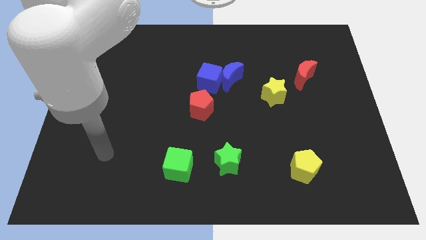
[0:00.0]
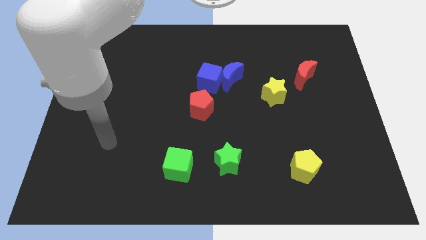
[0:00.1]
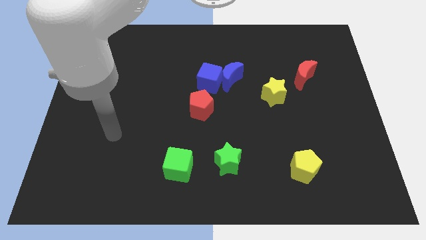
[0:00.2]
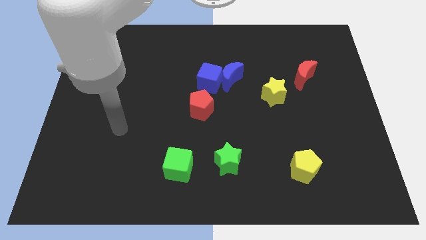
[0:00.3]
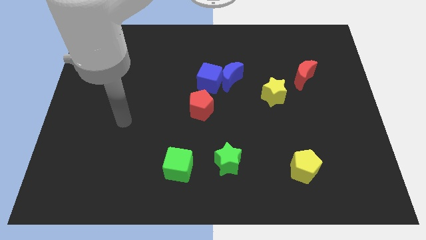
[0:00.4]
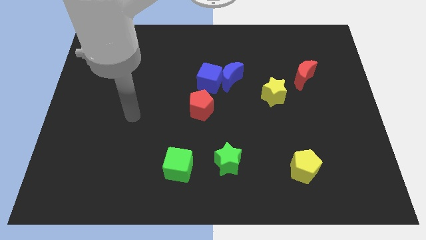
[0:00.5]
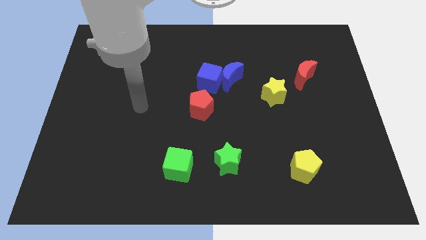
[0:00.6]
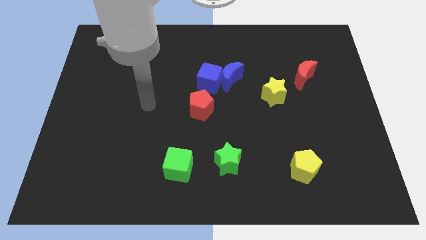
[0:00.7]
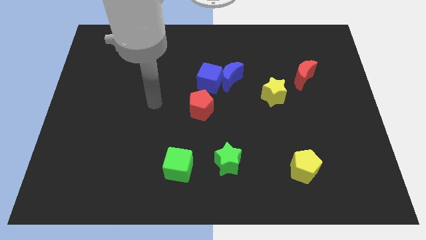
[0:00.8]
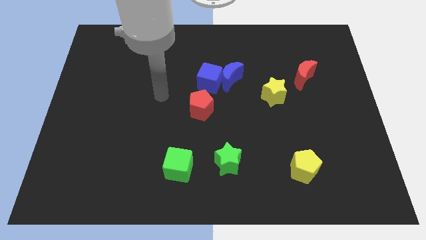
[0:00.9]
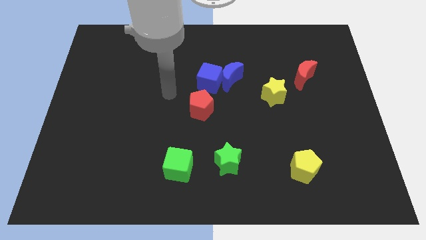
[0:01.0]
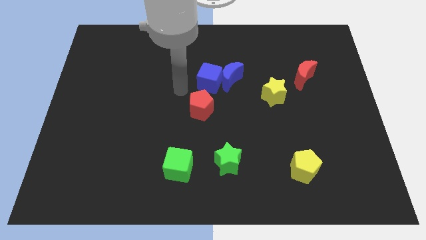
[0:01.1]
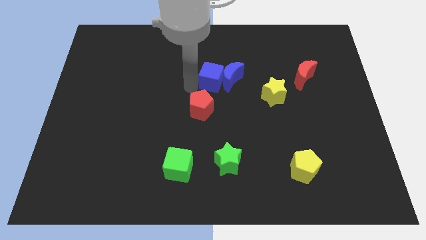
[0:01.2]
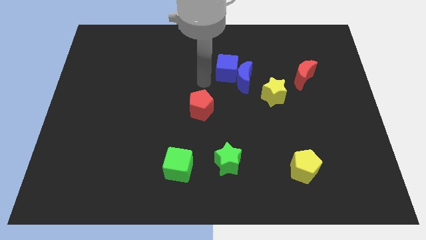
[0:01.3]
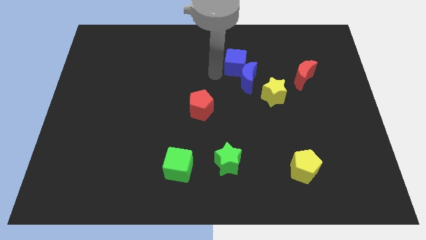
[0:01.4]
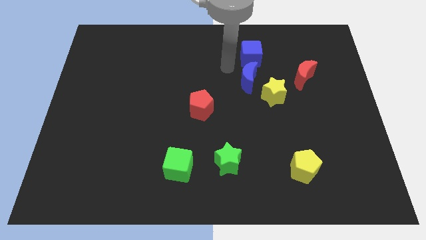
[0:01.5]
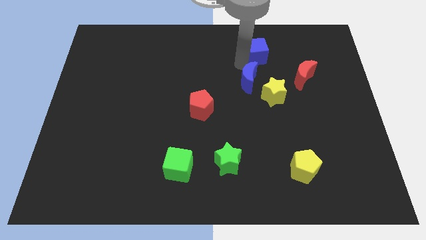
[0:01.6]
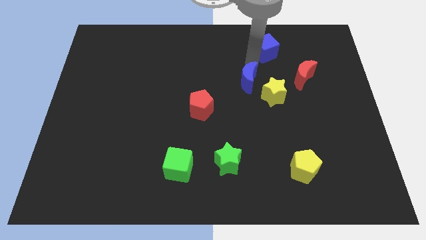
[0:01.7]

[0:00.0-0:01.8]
separate the blue moon from the blue cube

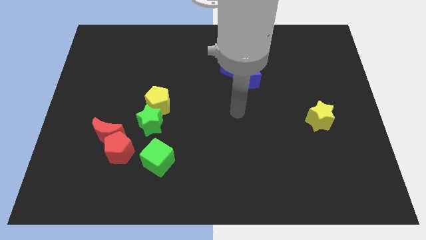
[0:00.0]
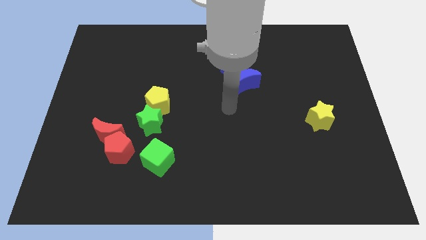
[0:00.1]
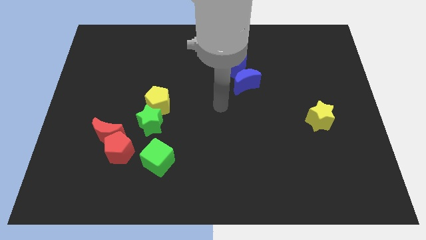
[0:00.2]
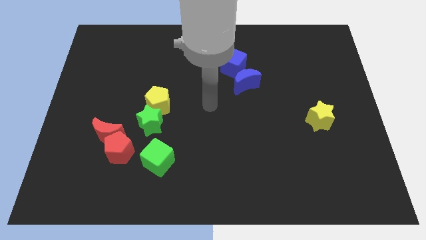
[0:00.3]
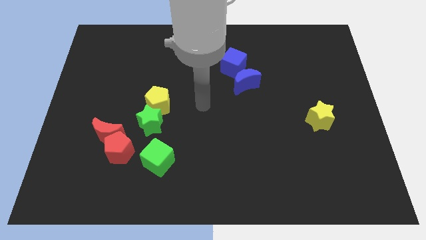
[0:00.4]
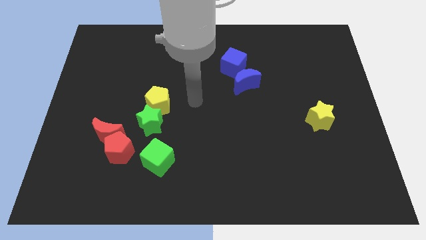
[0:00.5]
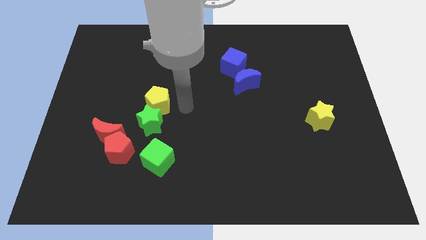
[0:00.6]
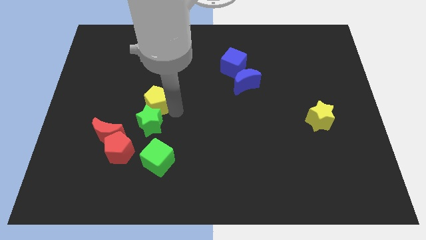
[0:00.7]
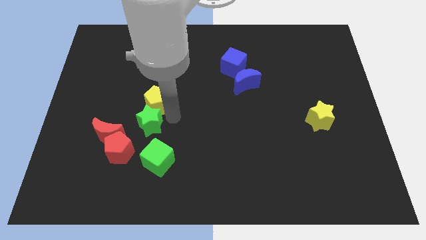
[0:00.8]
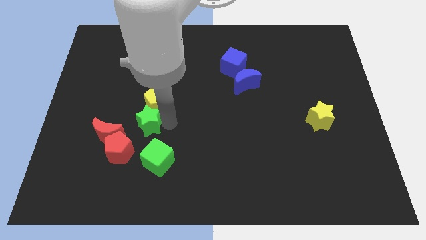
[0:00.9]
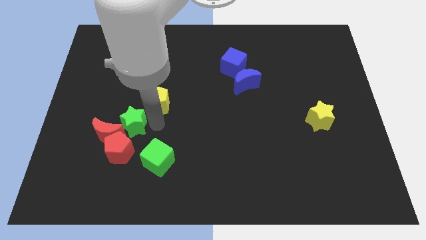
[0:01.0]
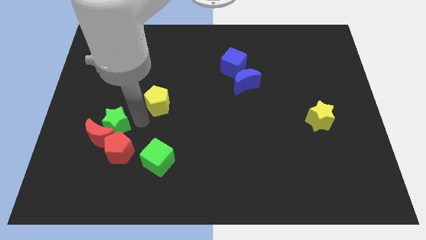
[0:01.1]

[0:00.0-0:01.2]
separate the yellow pentagon from the green star

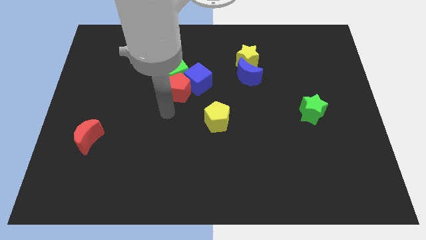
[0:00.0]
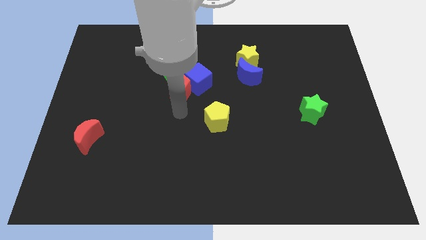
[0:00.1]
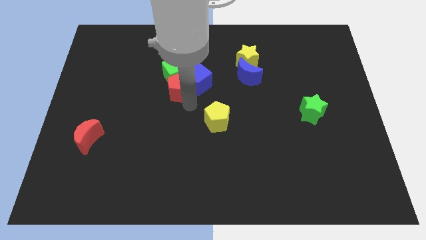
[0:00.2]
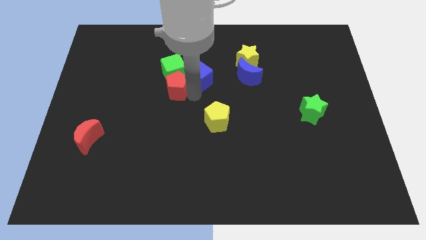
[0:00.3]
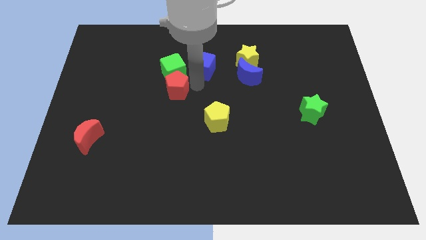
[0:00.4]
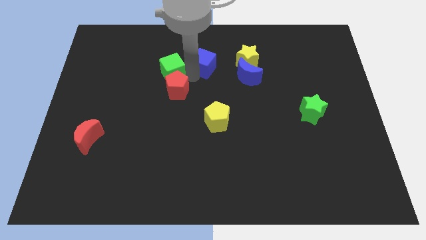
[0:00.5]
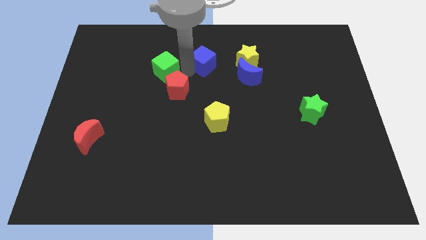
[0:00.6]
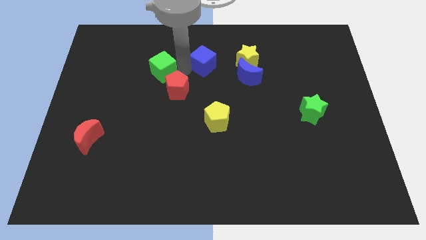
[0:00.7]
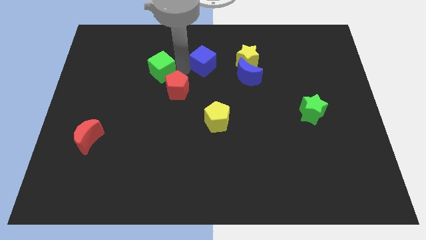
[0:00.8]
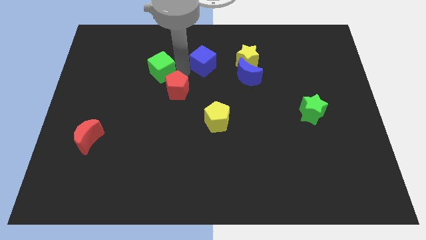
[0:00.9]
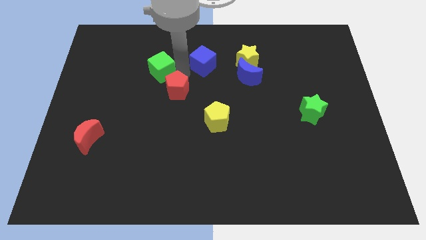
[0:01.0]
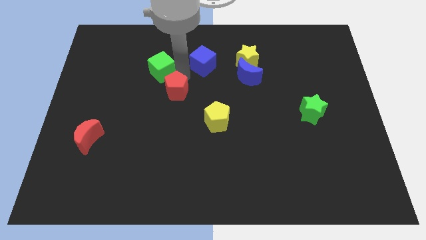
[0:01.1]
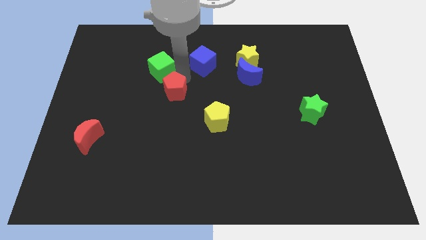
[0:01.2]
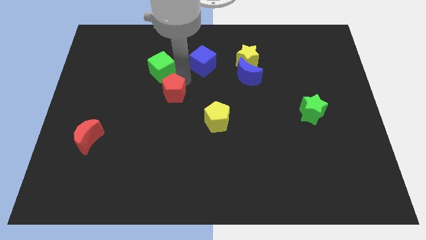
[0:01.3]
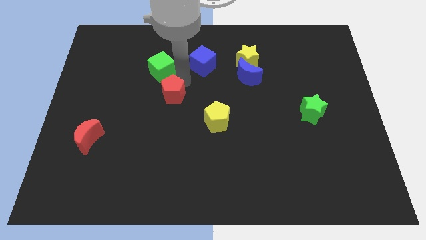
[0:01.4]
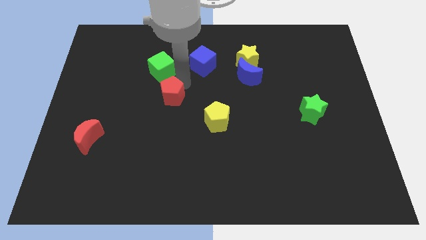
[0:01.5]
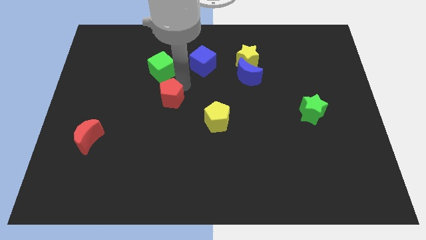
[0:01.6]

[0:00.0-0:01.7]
move the red pentagon away from the green cube and blue cube

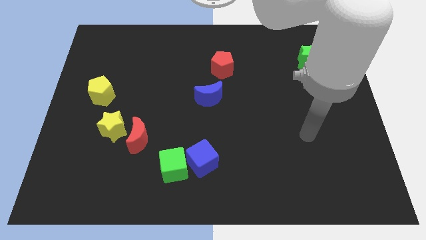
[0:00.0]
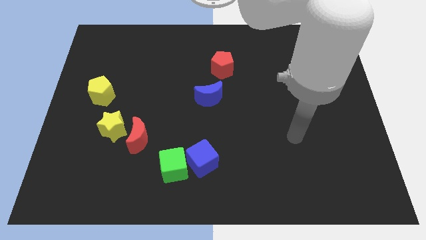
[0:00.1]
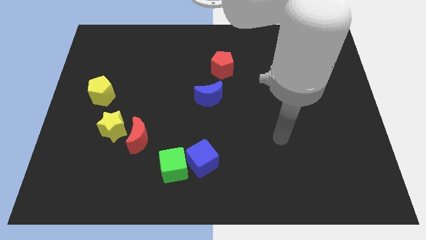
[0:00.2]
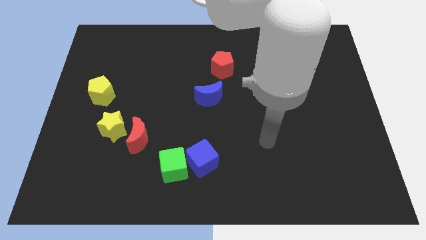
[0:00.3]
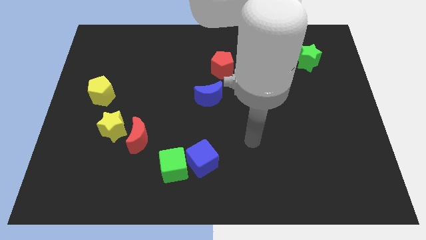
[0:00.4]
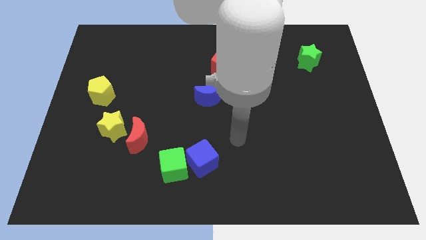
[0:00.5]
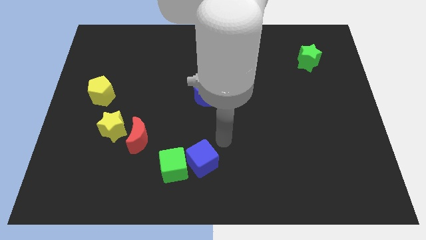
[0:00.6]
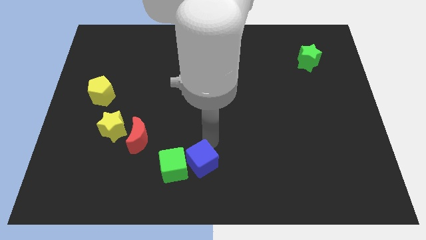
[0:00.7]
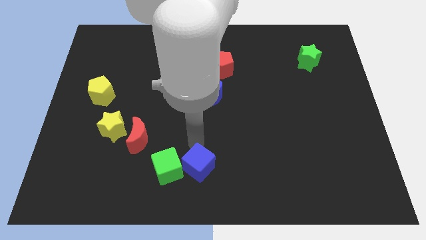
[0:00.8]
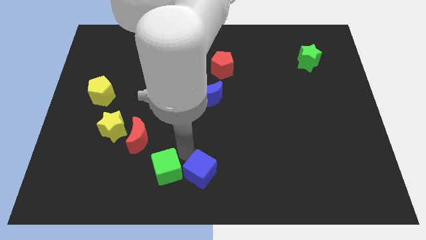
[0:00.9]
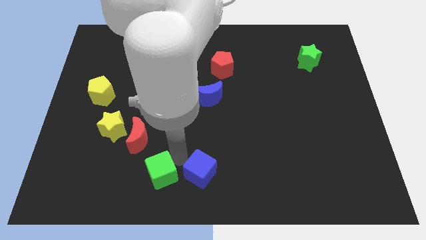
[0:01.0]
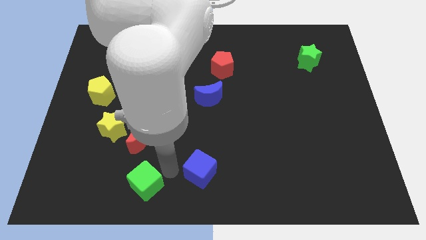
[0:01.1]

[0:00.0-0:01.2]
pull the blue cube apart from the green cube

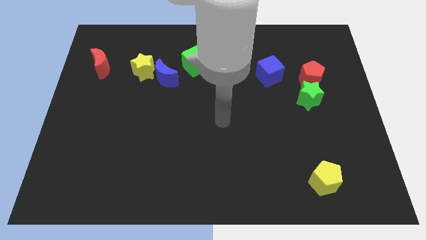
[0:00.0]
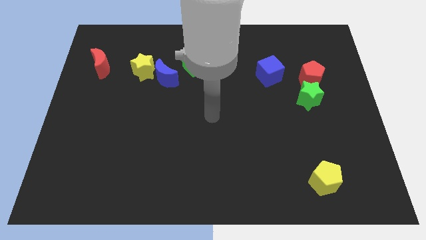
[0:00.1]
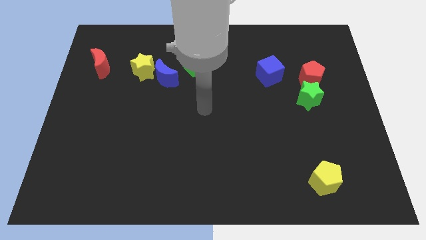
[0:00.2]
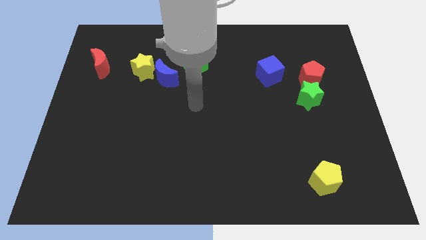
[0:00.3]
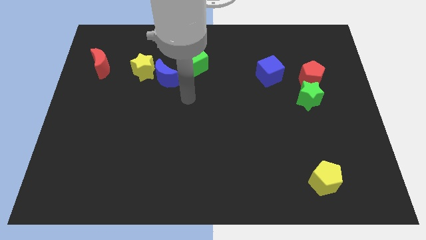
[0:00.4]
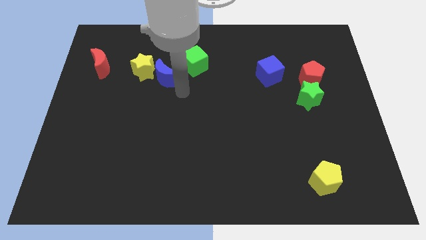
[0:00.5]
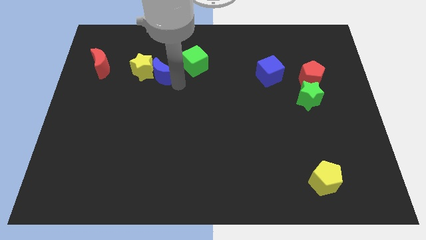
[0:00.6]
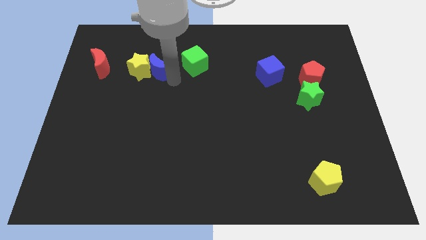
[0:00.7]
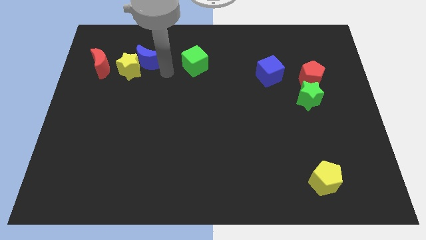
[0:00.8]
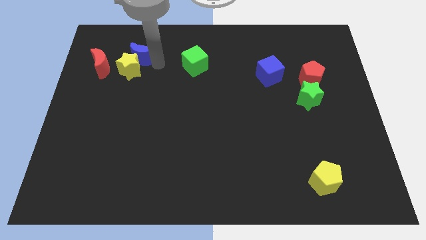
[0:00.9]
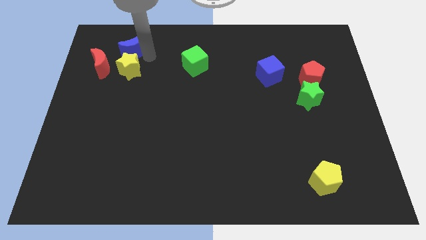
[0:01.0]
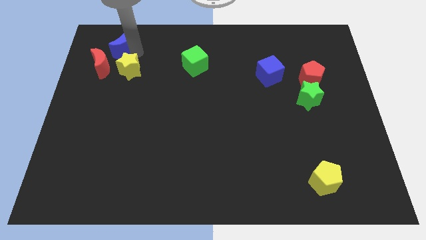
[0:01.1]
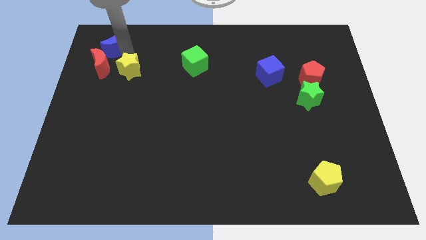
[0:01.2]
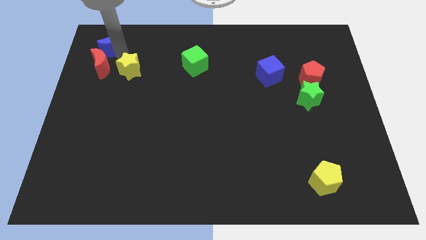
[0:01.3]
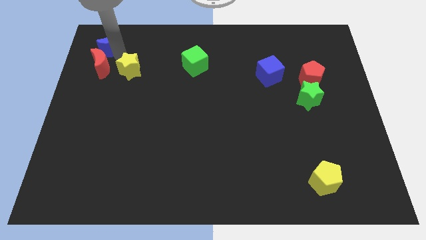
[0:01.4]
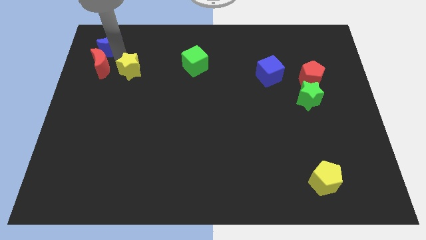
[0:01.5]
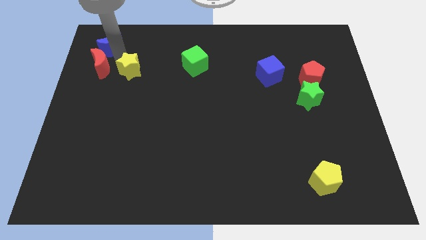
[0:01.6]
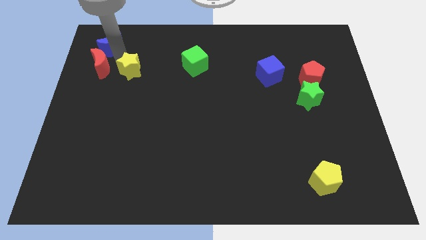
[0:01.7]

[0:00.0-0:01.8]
separate the yellow star from the blue moon

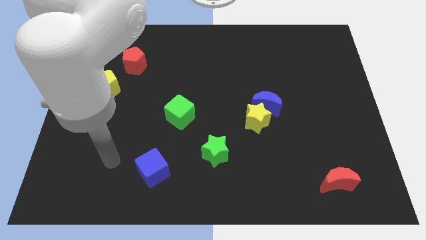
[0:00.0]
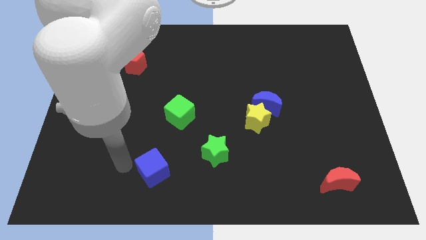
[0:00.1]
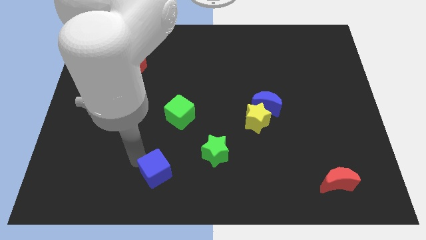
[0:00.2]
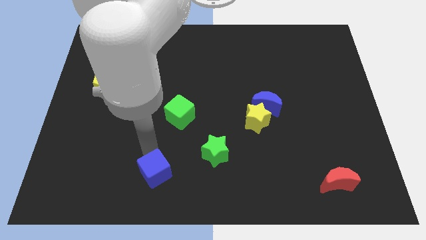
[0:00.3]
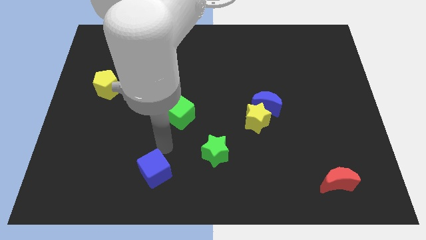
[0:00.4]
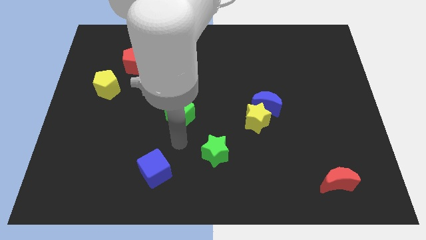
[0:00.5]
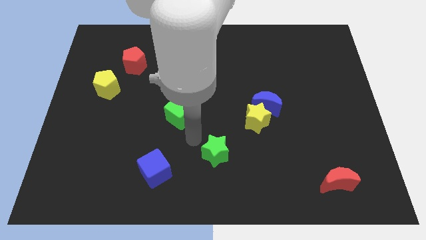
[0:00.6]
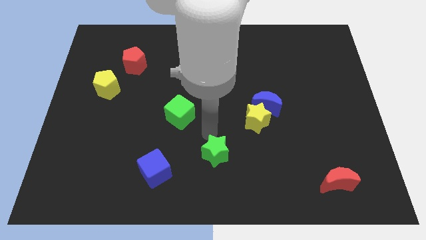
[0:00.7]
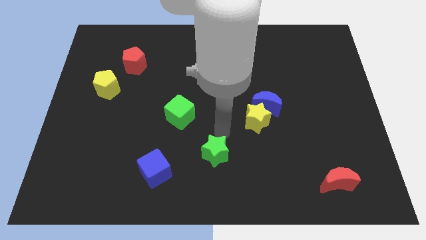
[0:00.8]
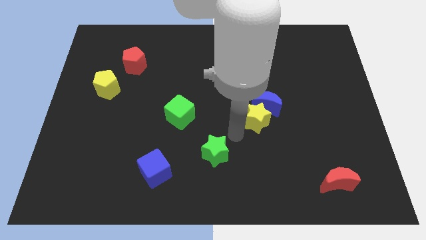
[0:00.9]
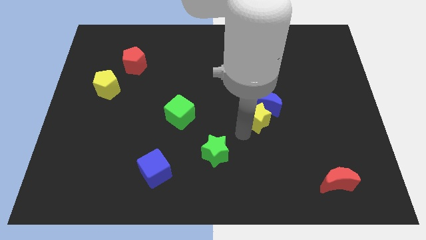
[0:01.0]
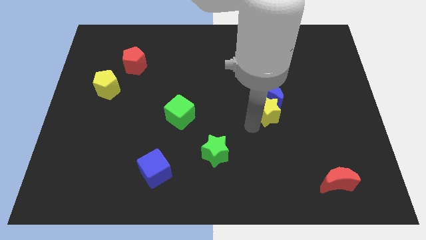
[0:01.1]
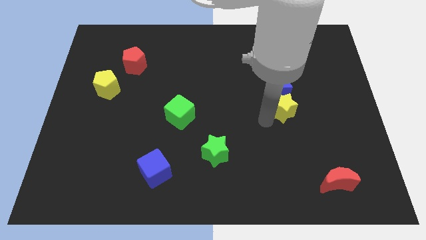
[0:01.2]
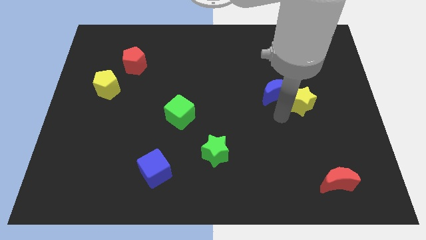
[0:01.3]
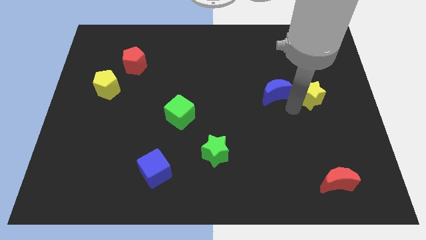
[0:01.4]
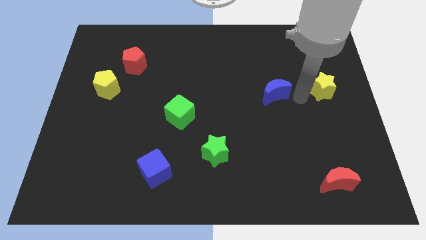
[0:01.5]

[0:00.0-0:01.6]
move the blue moon away from the yellow star
